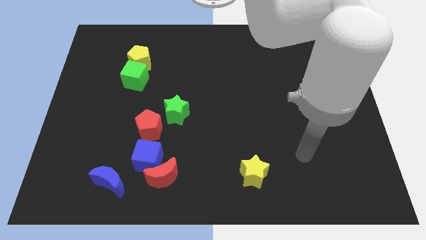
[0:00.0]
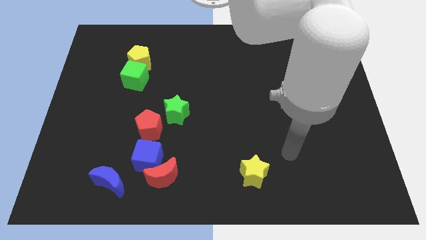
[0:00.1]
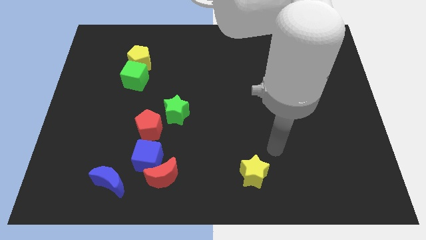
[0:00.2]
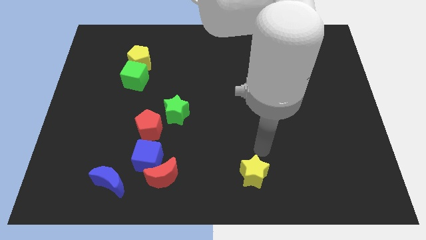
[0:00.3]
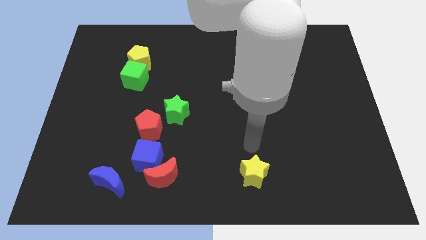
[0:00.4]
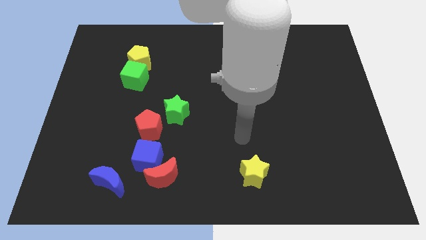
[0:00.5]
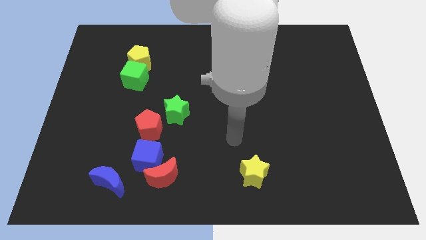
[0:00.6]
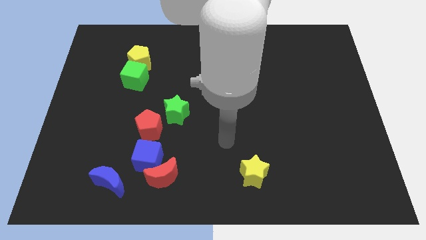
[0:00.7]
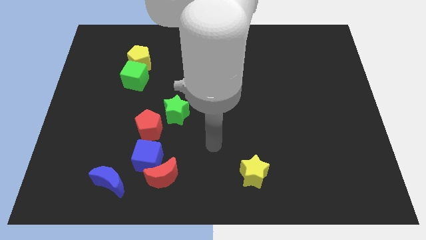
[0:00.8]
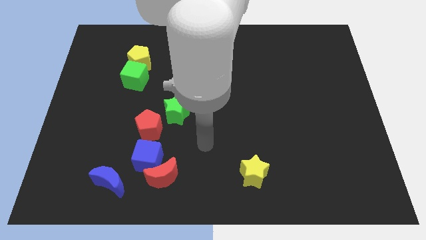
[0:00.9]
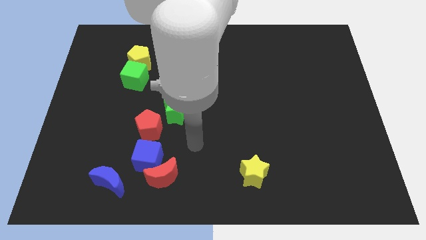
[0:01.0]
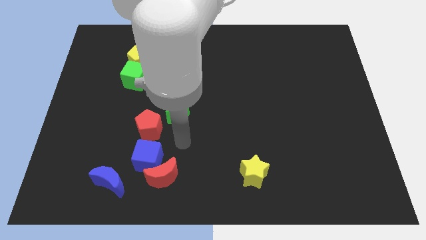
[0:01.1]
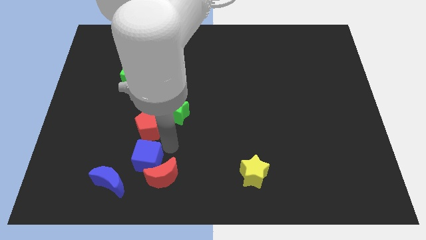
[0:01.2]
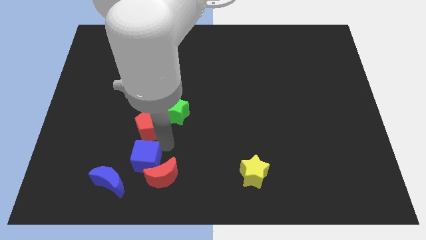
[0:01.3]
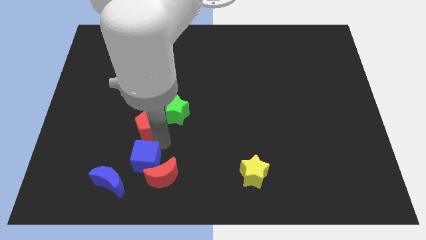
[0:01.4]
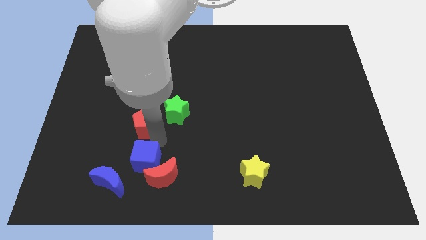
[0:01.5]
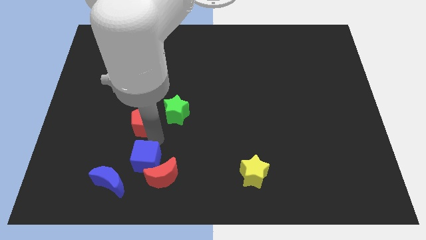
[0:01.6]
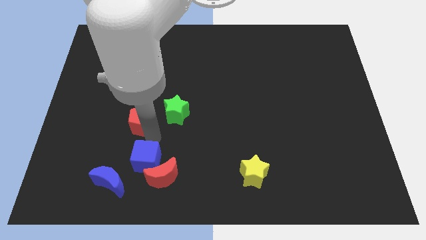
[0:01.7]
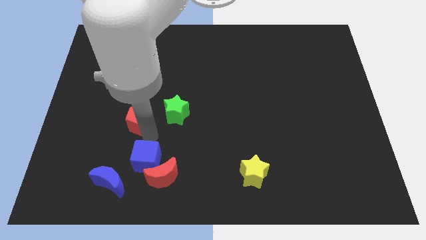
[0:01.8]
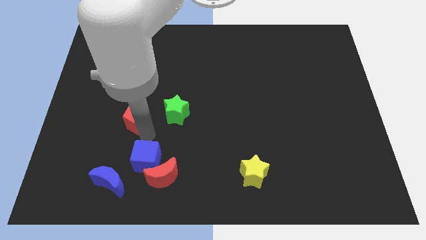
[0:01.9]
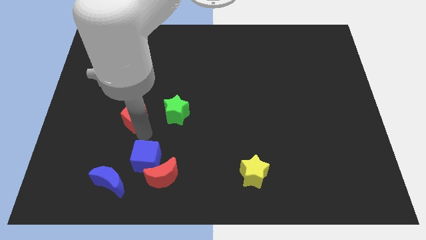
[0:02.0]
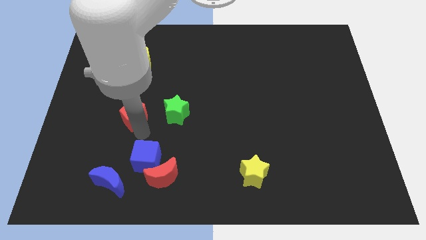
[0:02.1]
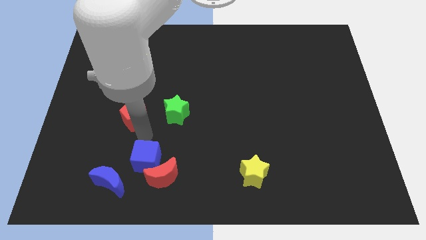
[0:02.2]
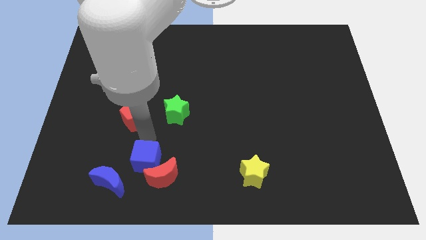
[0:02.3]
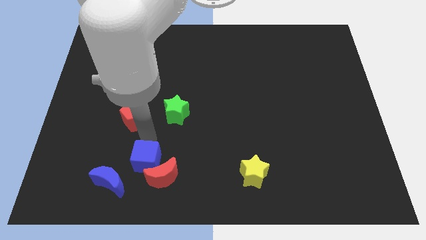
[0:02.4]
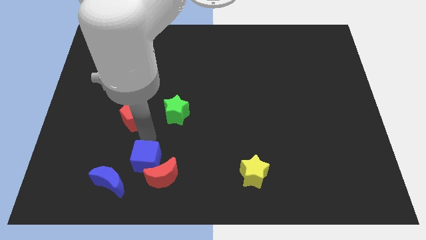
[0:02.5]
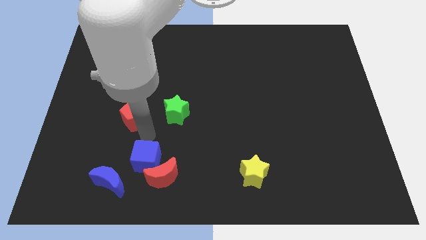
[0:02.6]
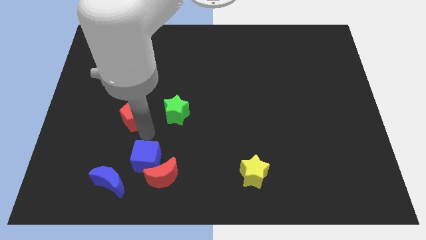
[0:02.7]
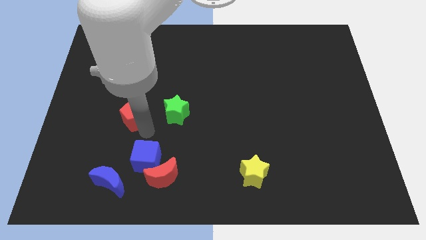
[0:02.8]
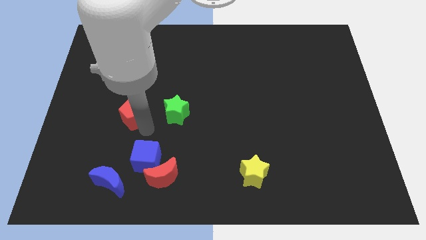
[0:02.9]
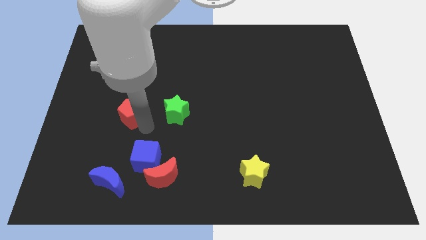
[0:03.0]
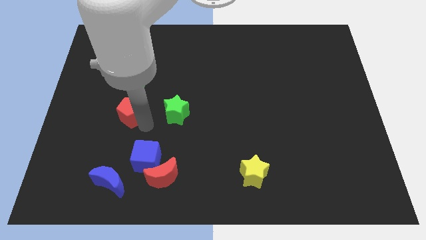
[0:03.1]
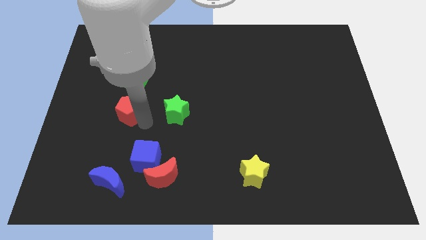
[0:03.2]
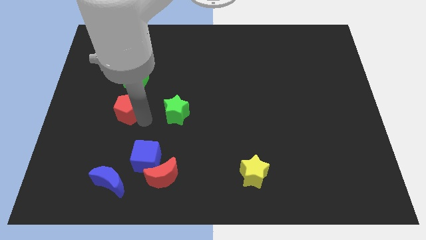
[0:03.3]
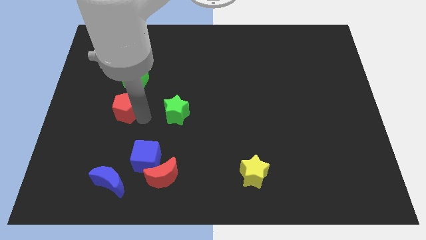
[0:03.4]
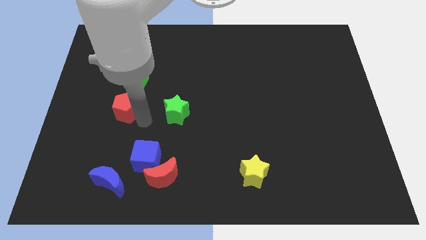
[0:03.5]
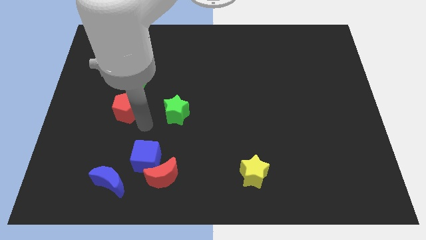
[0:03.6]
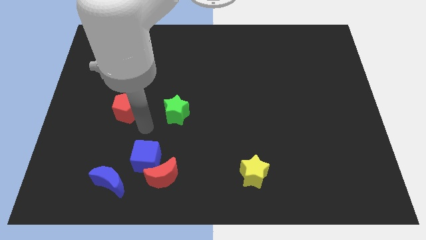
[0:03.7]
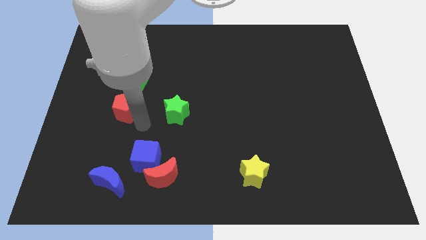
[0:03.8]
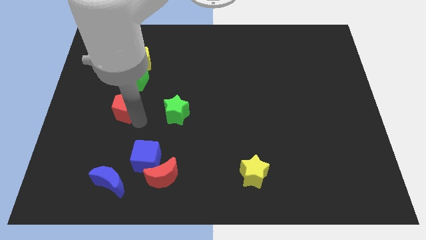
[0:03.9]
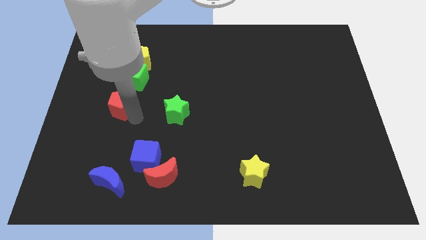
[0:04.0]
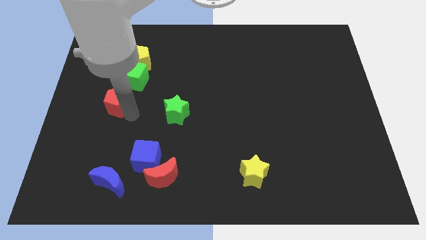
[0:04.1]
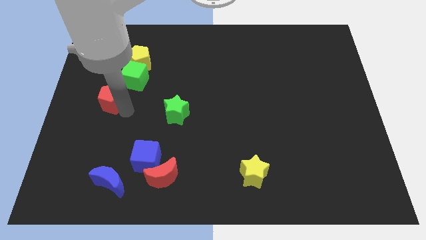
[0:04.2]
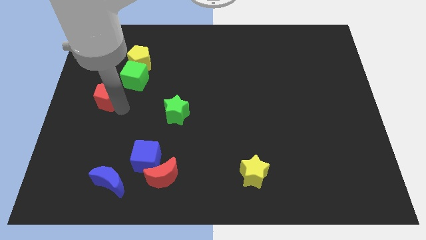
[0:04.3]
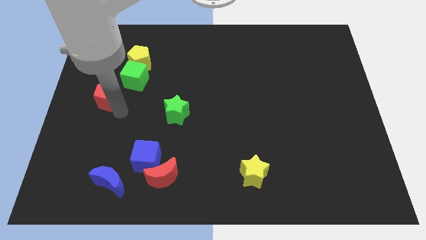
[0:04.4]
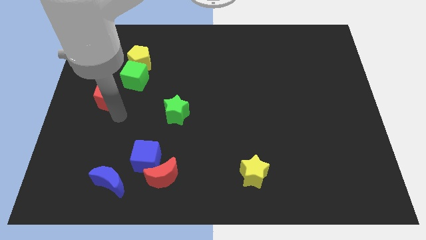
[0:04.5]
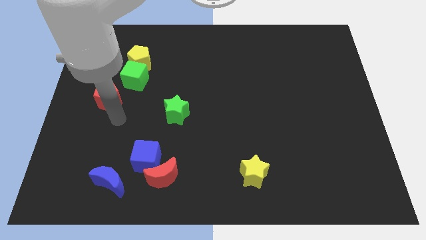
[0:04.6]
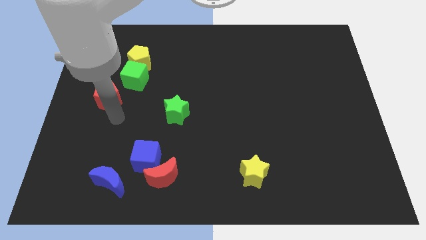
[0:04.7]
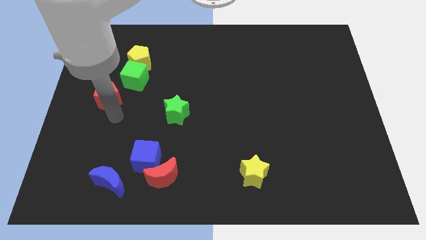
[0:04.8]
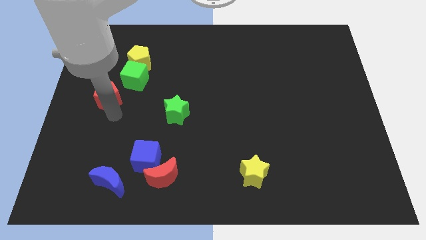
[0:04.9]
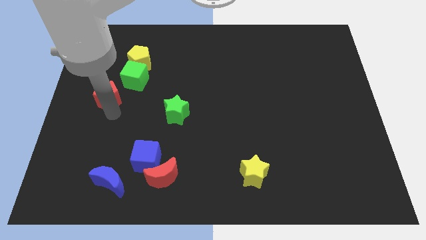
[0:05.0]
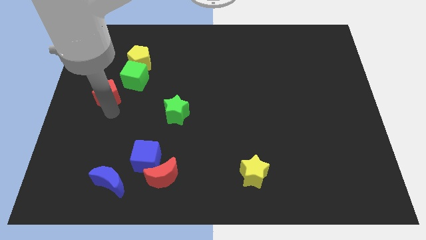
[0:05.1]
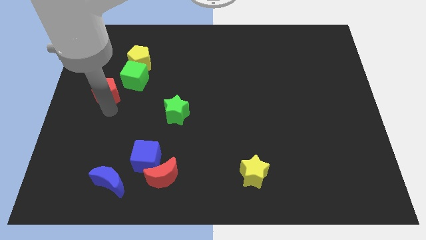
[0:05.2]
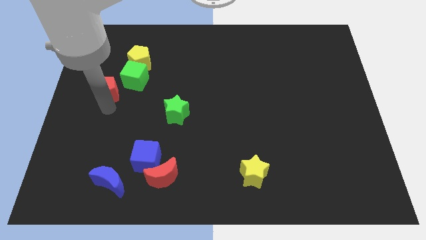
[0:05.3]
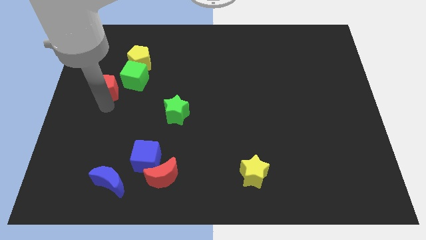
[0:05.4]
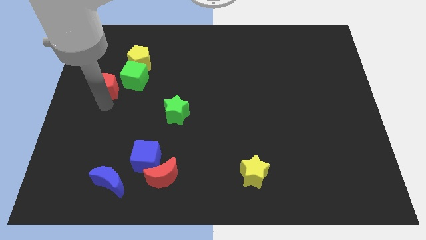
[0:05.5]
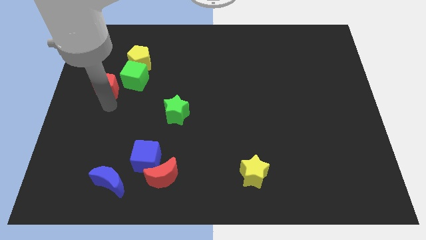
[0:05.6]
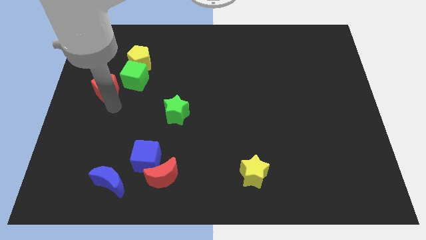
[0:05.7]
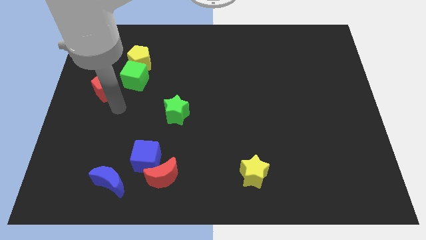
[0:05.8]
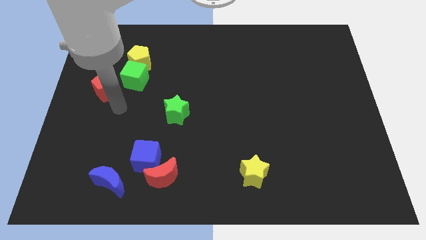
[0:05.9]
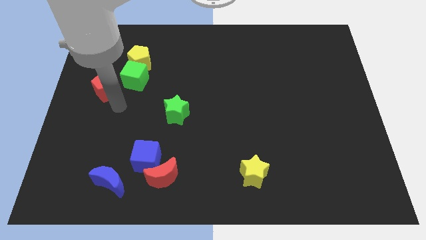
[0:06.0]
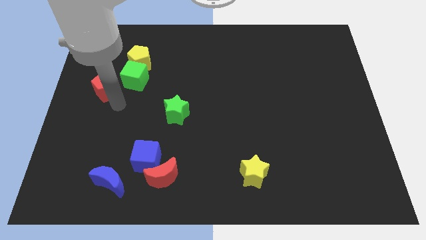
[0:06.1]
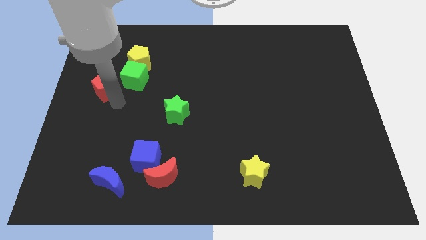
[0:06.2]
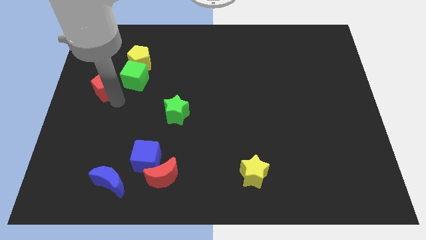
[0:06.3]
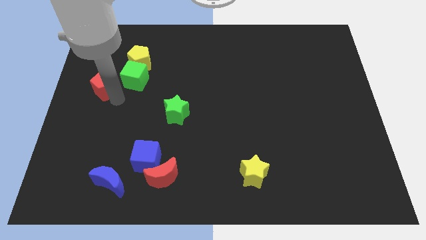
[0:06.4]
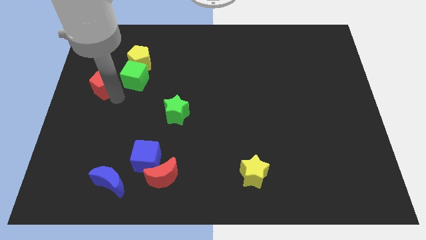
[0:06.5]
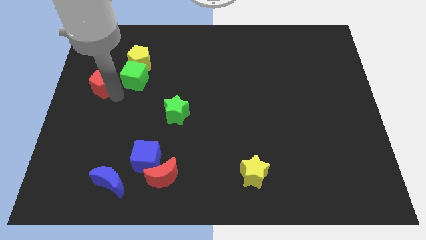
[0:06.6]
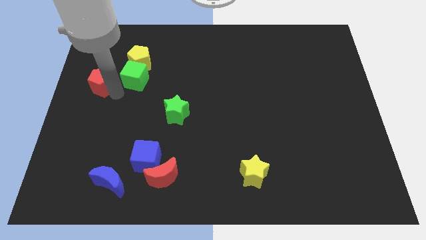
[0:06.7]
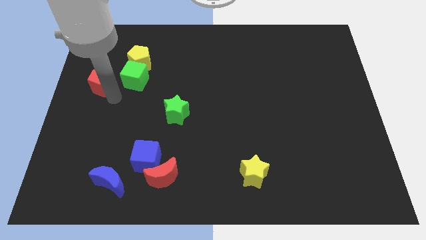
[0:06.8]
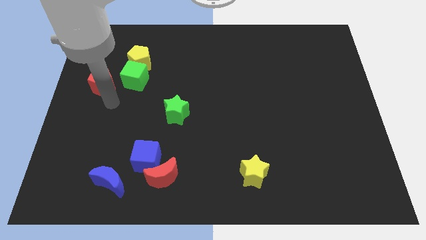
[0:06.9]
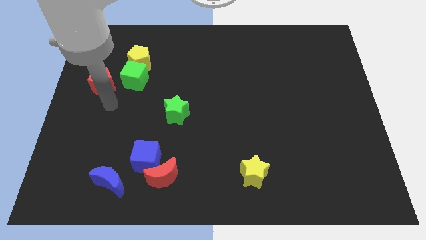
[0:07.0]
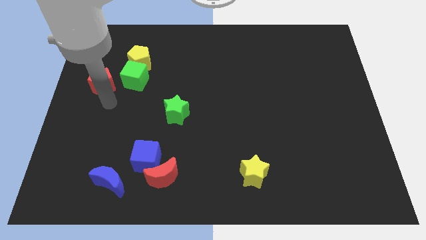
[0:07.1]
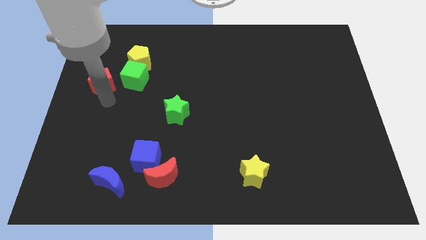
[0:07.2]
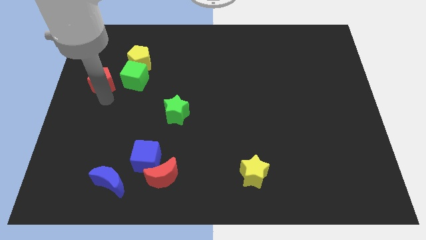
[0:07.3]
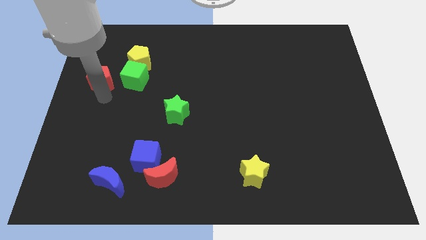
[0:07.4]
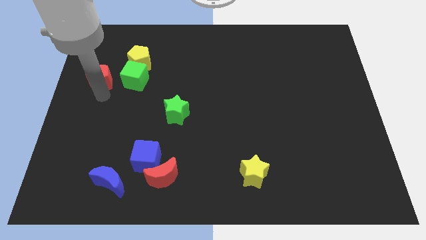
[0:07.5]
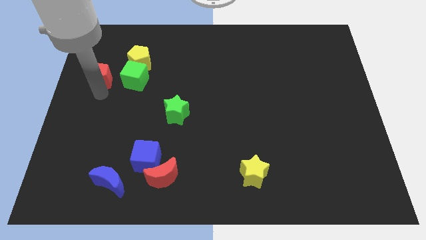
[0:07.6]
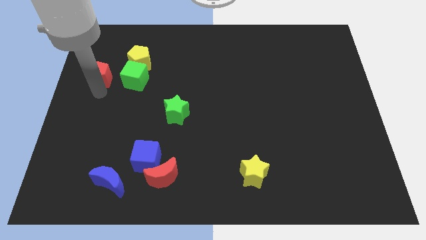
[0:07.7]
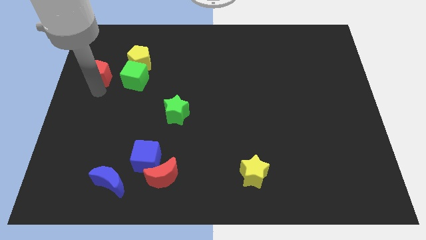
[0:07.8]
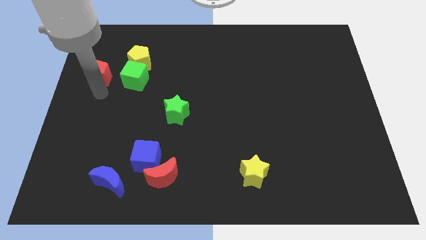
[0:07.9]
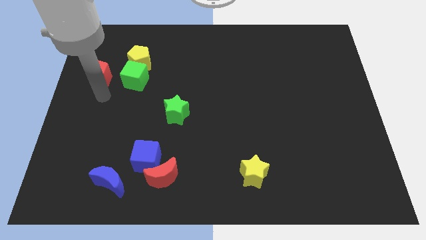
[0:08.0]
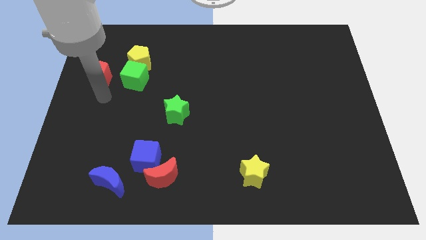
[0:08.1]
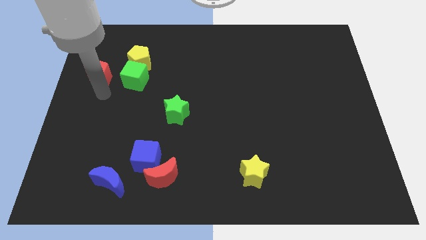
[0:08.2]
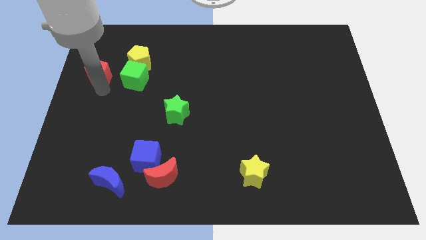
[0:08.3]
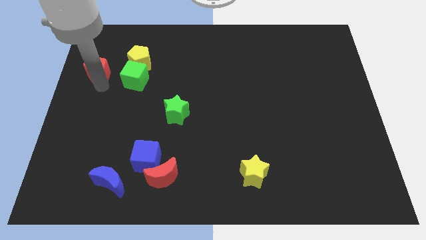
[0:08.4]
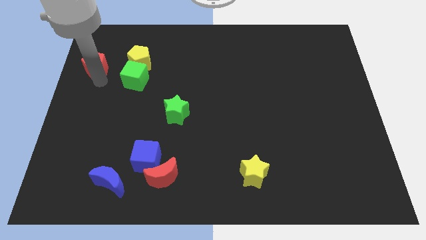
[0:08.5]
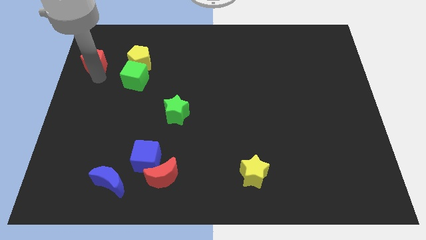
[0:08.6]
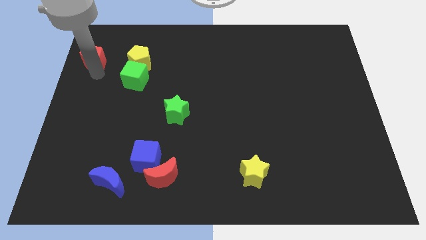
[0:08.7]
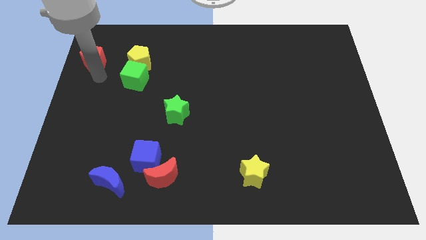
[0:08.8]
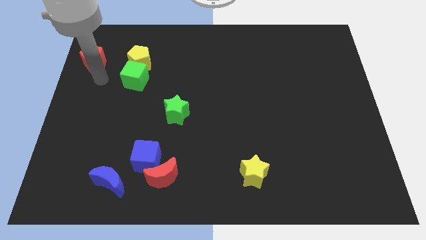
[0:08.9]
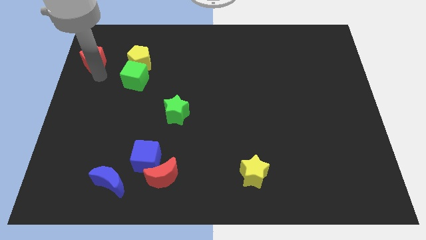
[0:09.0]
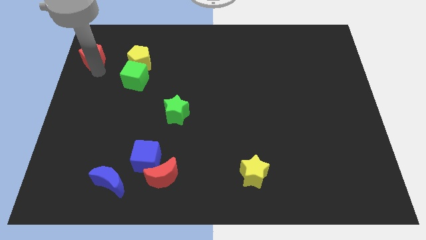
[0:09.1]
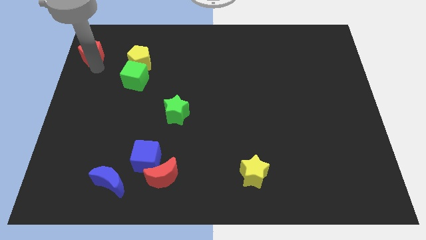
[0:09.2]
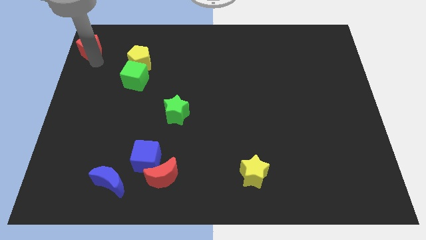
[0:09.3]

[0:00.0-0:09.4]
push the red pentagon to the upper left corner
